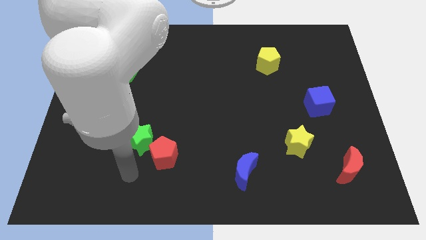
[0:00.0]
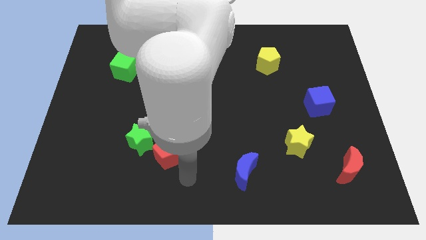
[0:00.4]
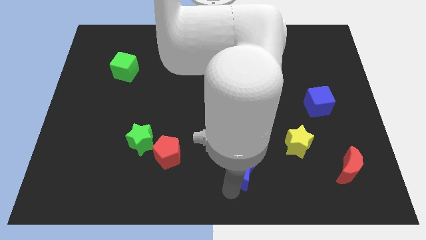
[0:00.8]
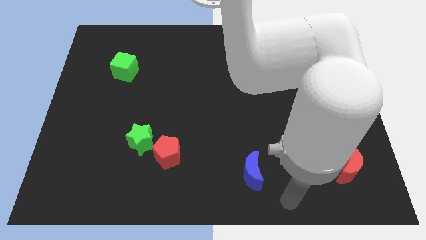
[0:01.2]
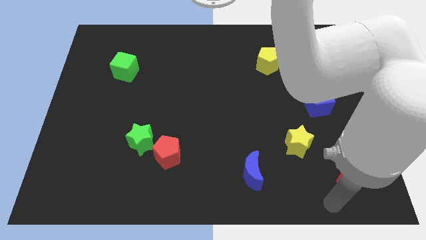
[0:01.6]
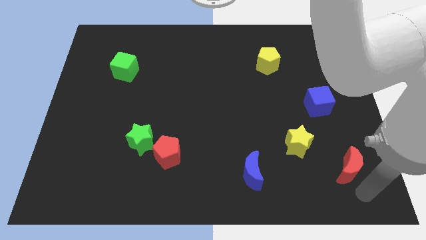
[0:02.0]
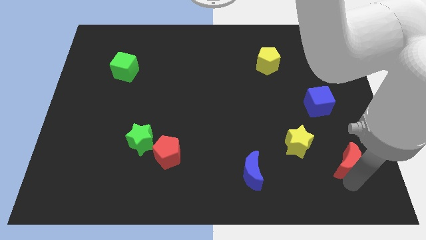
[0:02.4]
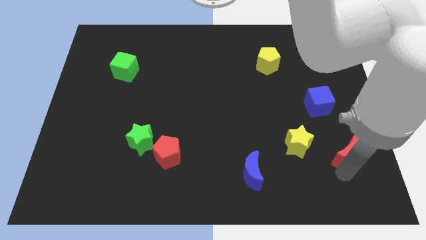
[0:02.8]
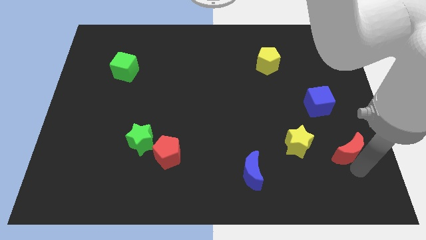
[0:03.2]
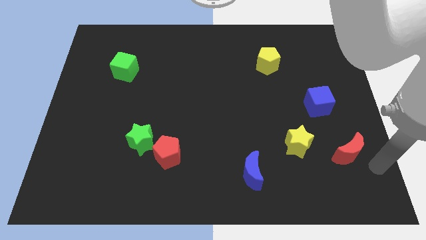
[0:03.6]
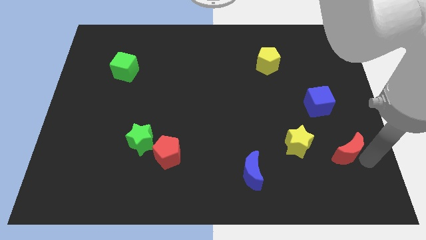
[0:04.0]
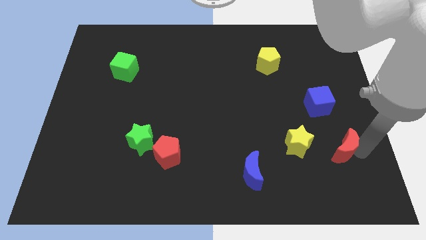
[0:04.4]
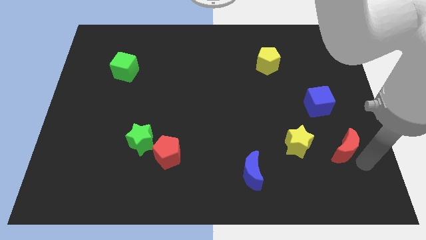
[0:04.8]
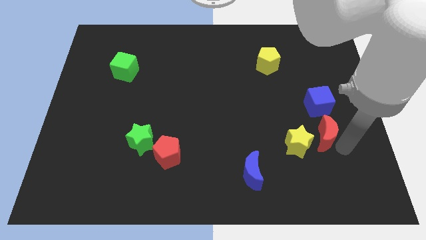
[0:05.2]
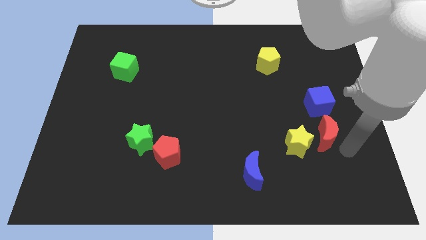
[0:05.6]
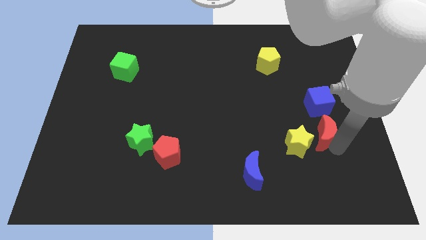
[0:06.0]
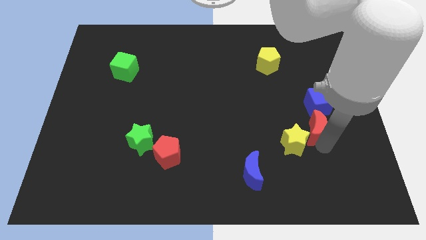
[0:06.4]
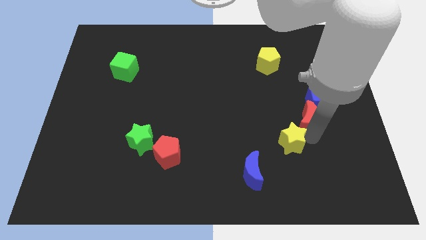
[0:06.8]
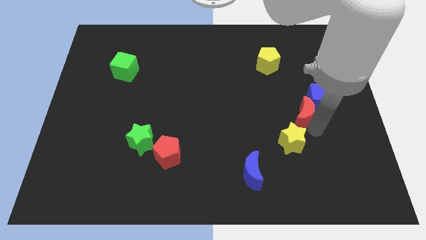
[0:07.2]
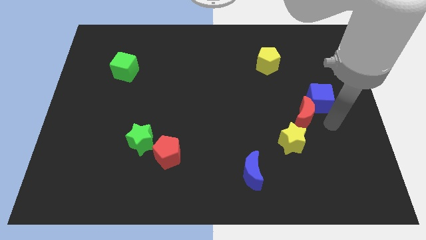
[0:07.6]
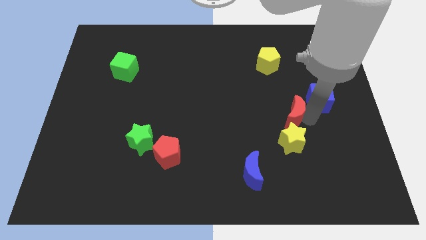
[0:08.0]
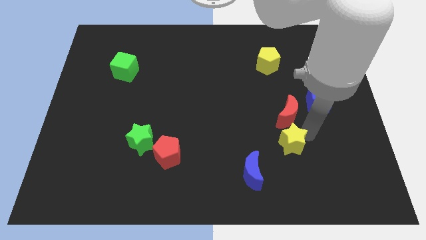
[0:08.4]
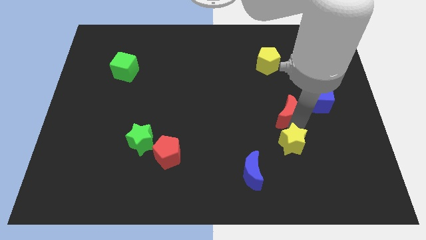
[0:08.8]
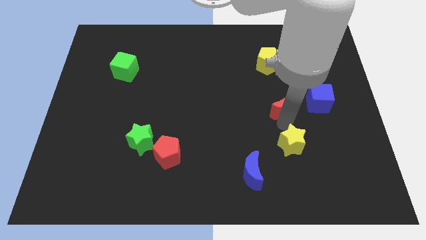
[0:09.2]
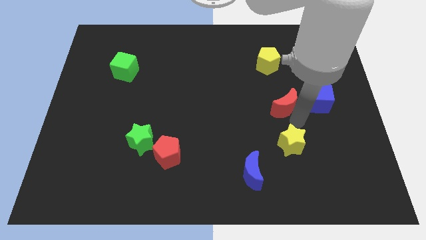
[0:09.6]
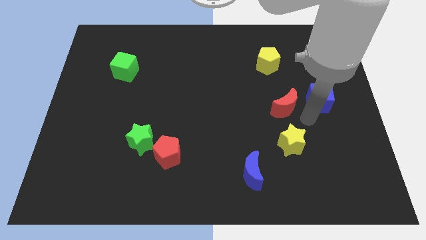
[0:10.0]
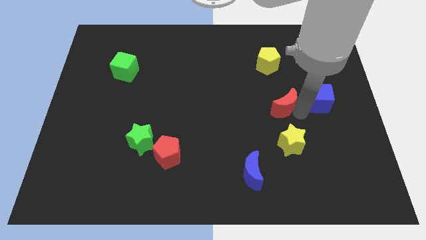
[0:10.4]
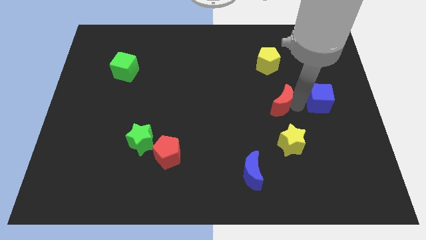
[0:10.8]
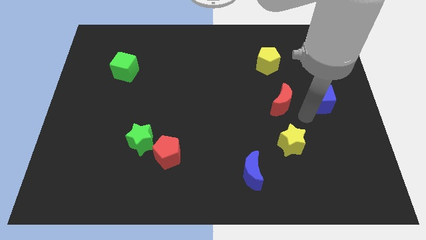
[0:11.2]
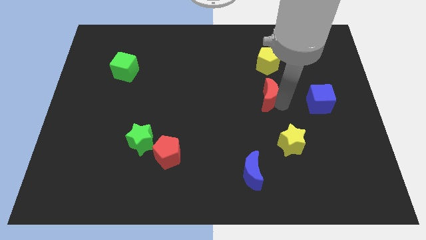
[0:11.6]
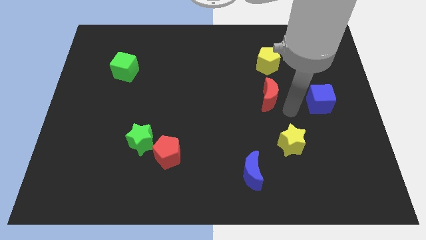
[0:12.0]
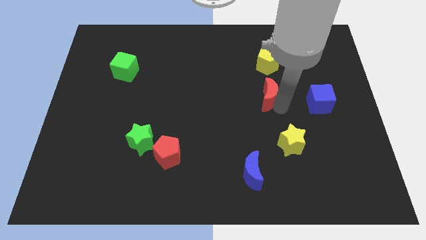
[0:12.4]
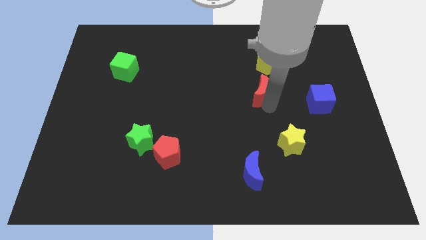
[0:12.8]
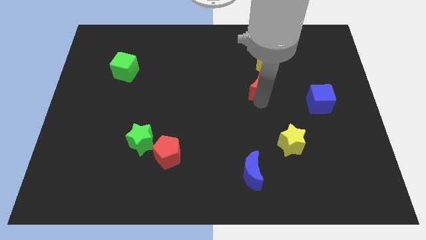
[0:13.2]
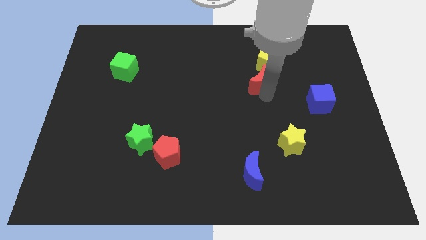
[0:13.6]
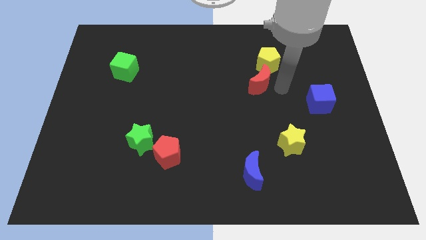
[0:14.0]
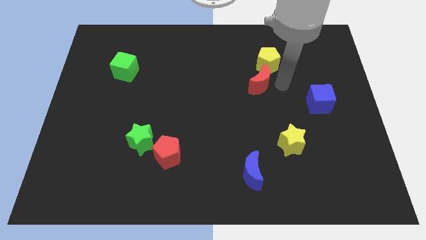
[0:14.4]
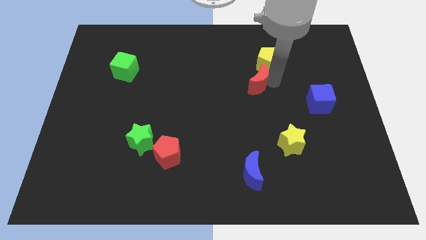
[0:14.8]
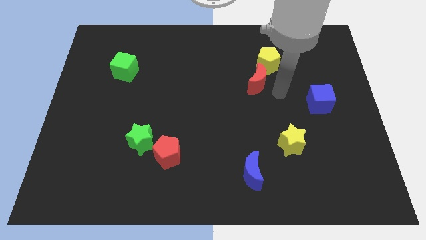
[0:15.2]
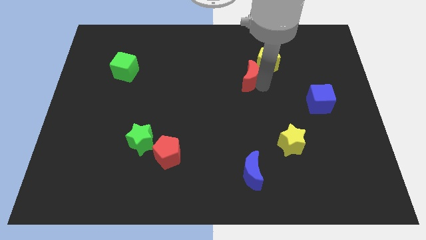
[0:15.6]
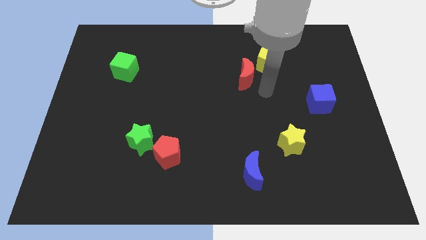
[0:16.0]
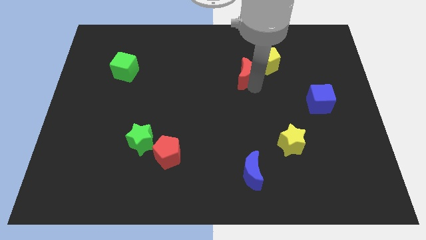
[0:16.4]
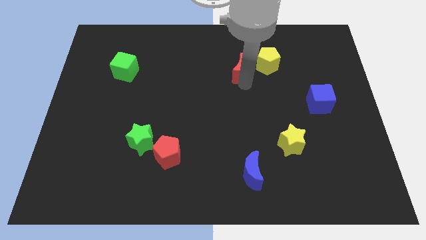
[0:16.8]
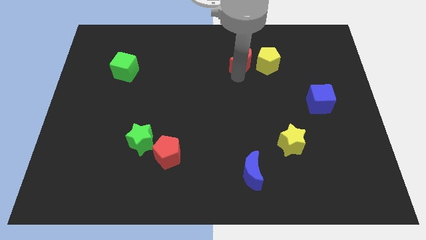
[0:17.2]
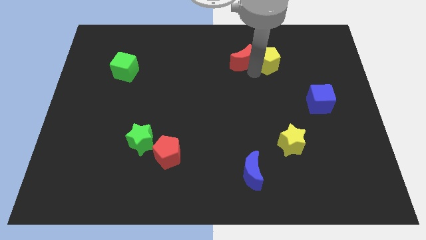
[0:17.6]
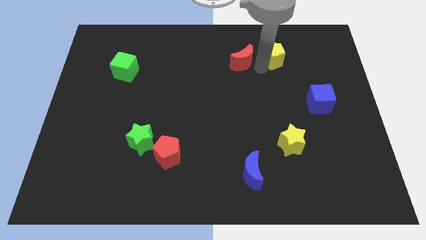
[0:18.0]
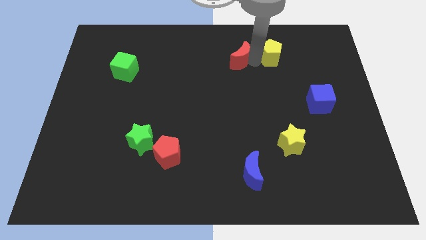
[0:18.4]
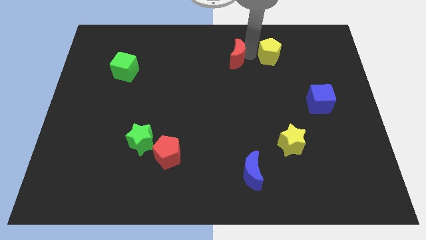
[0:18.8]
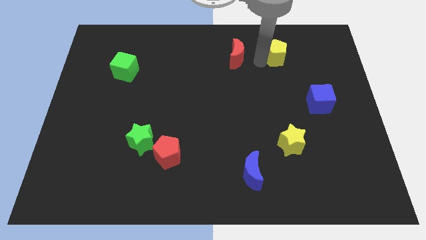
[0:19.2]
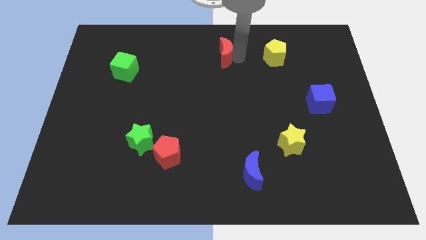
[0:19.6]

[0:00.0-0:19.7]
slide the red moon to the top side

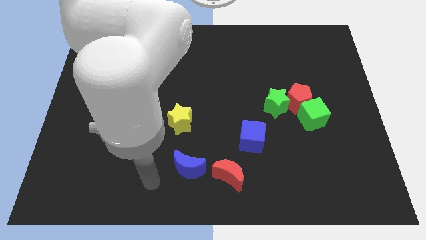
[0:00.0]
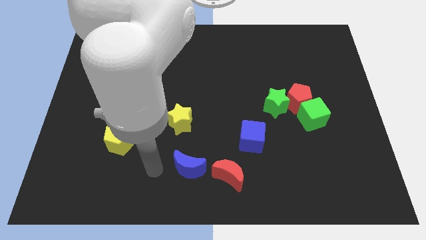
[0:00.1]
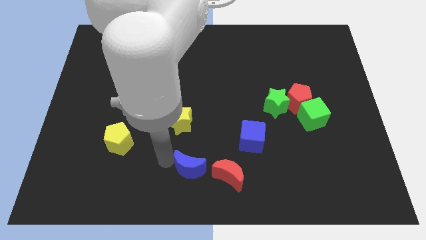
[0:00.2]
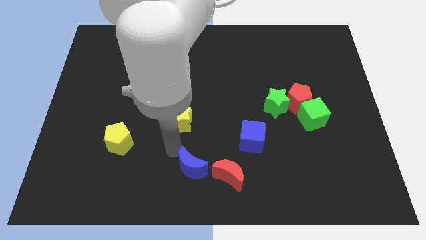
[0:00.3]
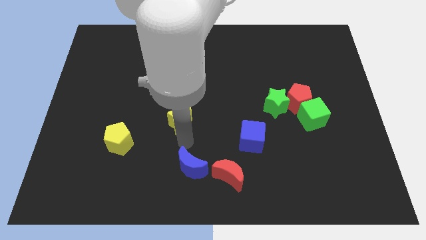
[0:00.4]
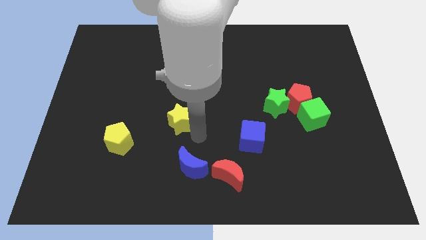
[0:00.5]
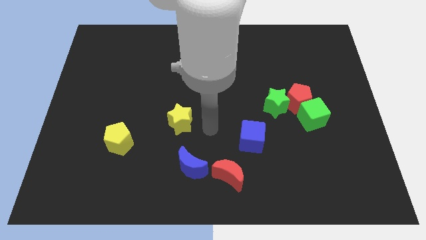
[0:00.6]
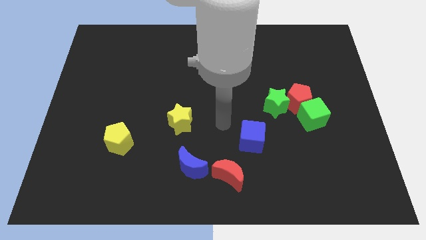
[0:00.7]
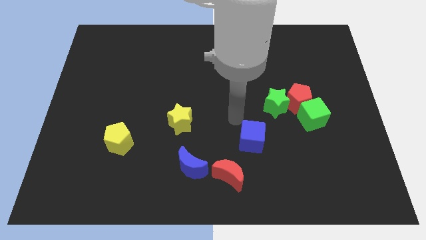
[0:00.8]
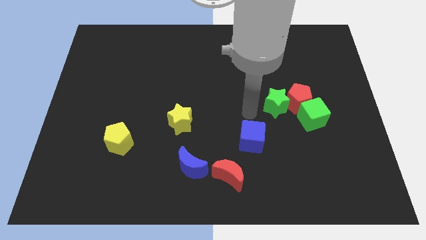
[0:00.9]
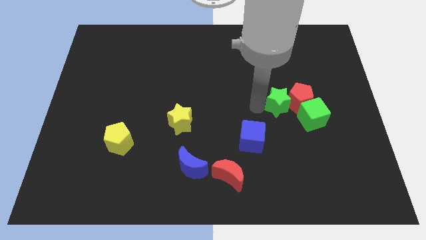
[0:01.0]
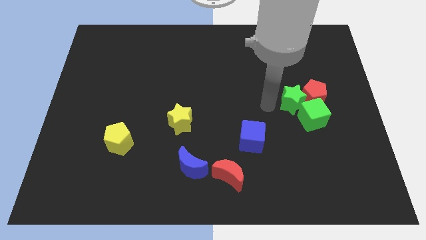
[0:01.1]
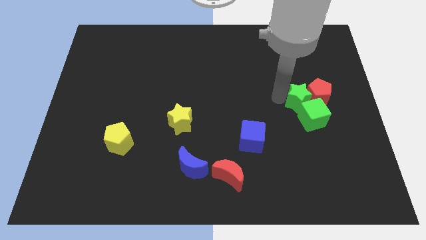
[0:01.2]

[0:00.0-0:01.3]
put the red pentagon to the right side
